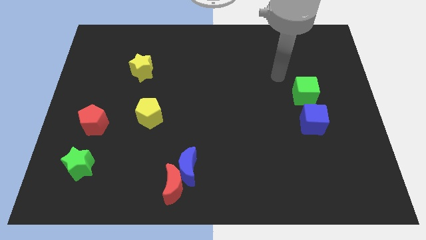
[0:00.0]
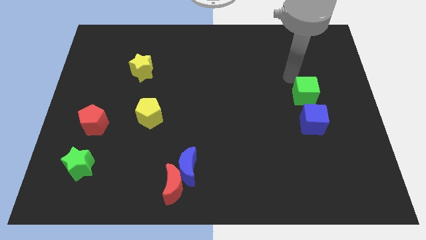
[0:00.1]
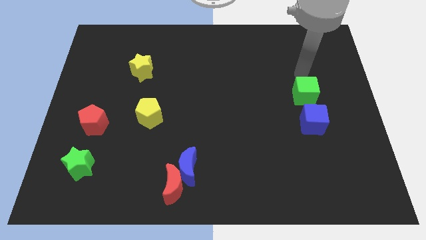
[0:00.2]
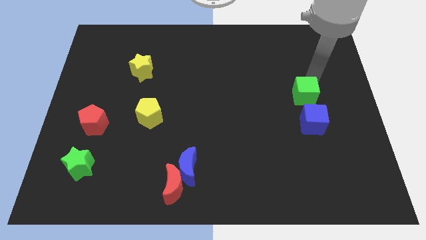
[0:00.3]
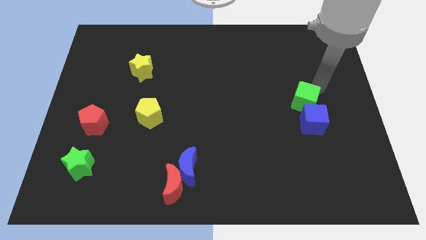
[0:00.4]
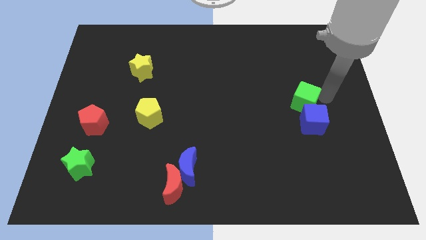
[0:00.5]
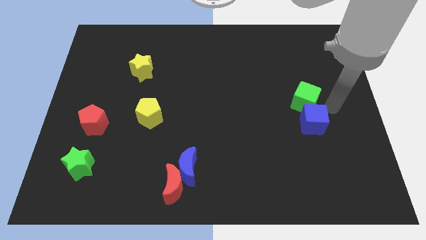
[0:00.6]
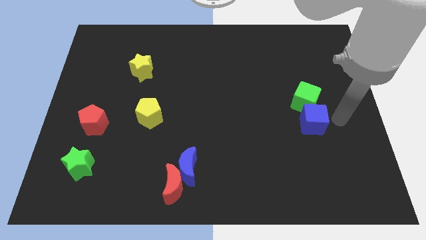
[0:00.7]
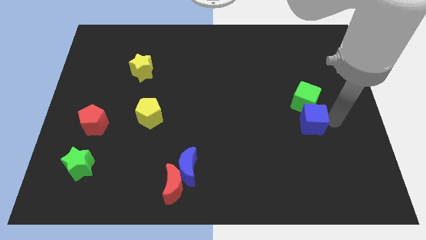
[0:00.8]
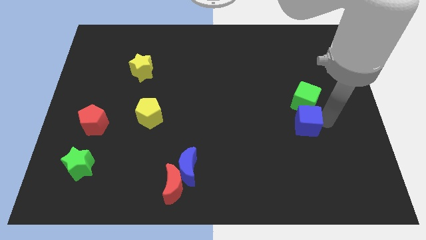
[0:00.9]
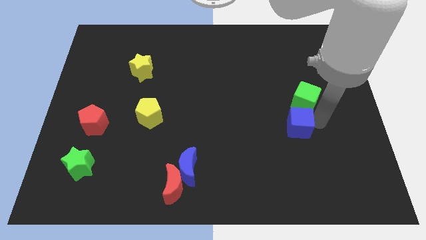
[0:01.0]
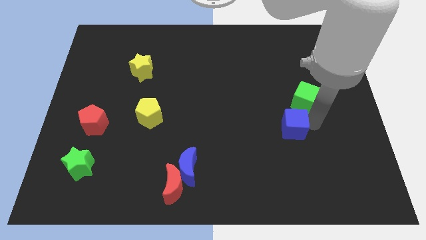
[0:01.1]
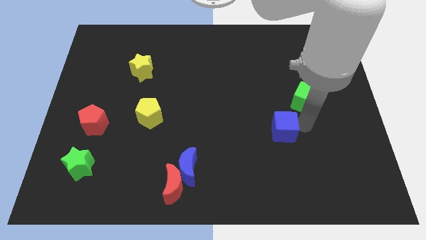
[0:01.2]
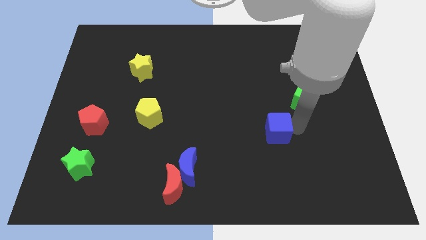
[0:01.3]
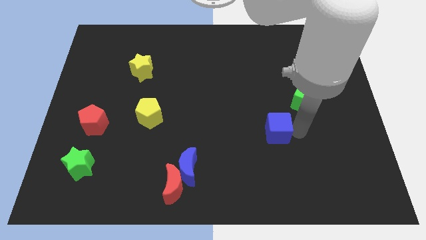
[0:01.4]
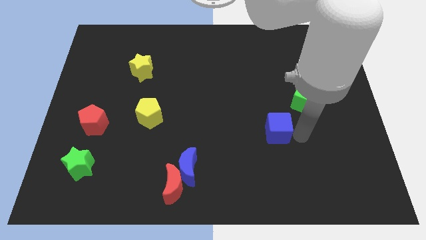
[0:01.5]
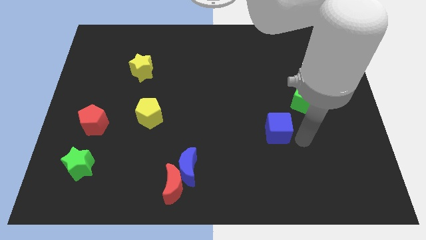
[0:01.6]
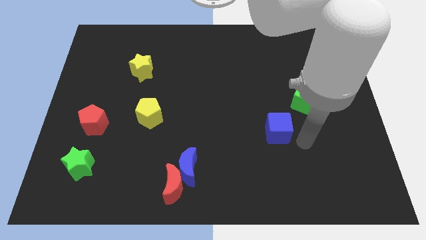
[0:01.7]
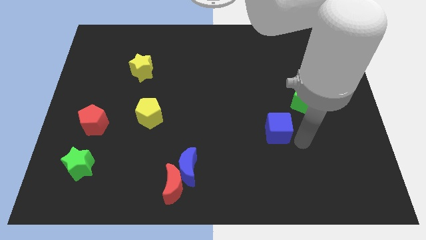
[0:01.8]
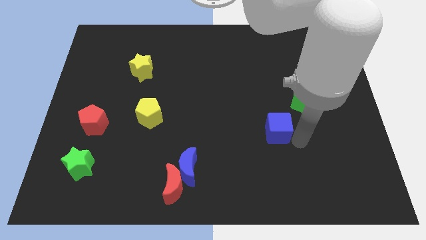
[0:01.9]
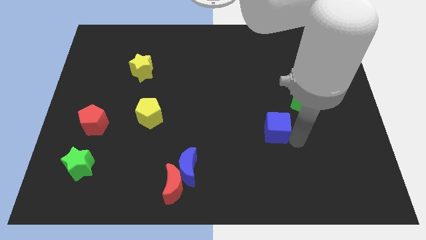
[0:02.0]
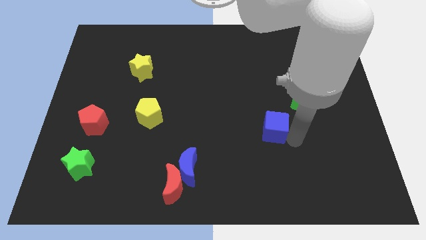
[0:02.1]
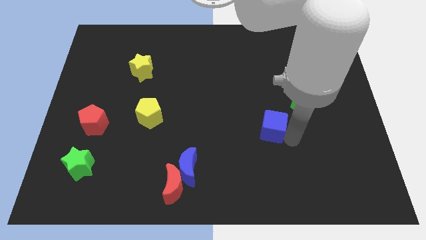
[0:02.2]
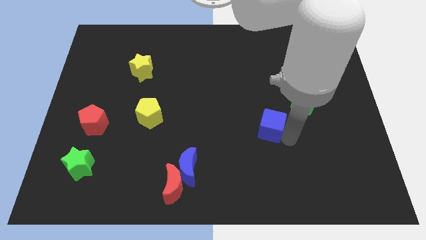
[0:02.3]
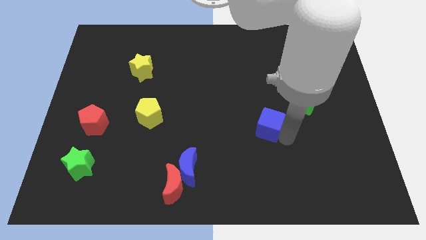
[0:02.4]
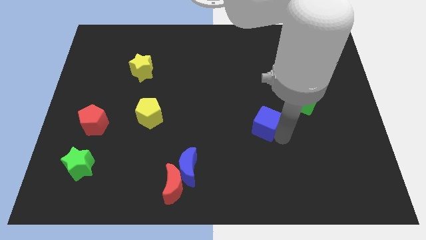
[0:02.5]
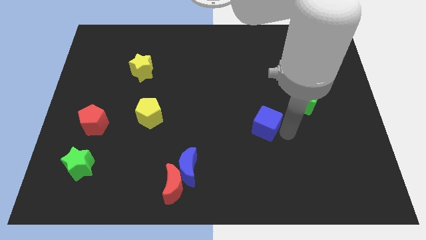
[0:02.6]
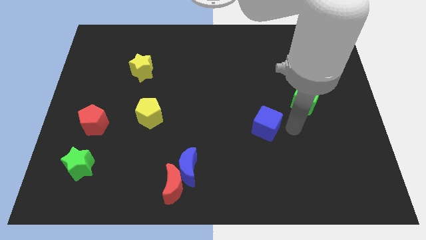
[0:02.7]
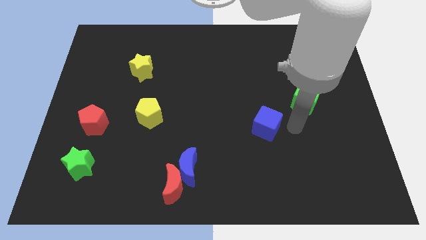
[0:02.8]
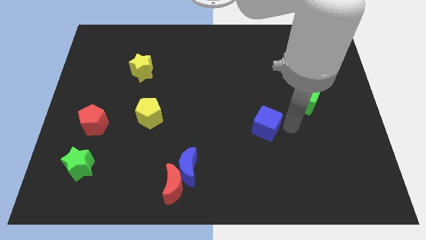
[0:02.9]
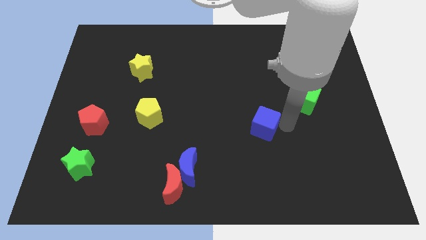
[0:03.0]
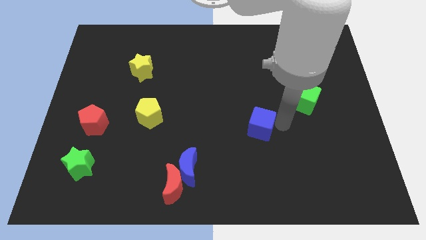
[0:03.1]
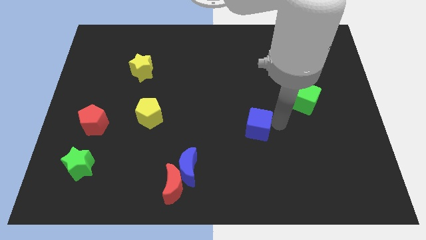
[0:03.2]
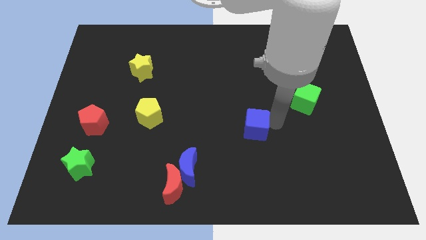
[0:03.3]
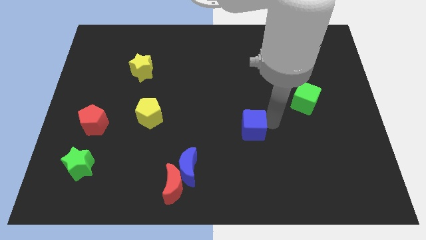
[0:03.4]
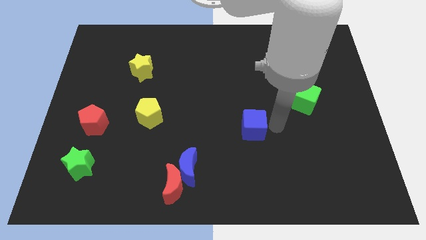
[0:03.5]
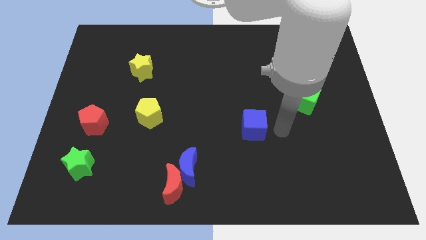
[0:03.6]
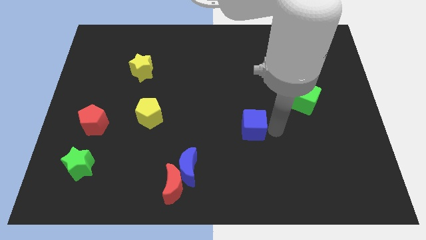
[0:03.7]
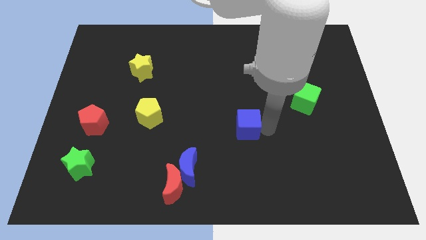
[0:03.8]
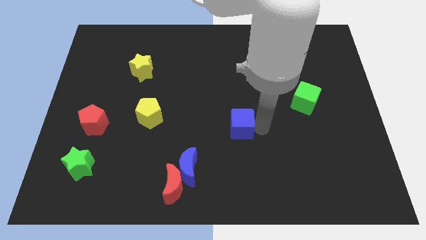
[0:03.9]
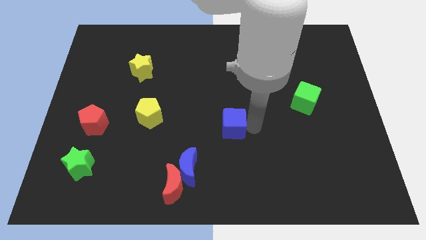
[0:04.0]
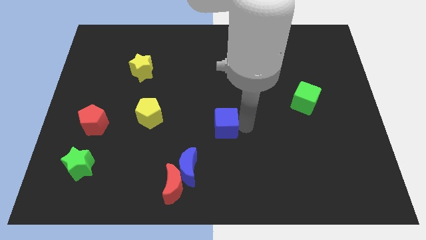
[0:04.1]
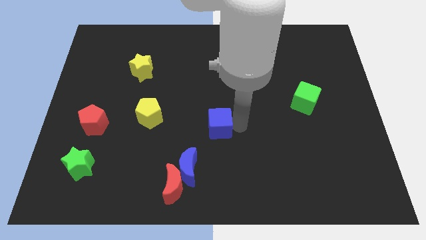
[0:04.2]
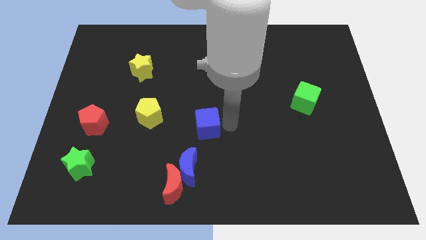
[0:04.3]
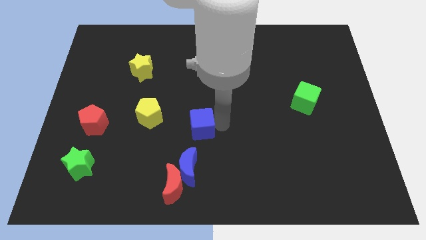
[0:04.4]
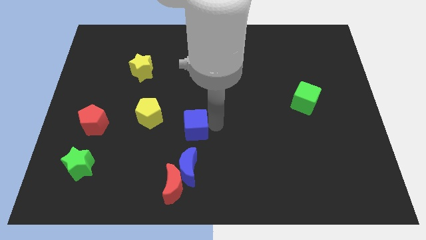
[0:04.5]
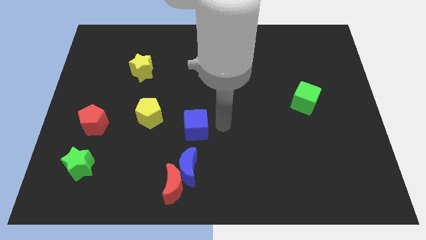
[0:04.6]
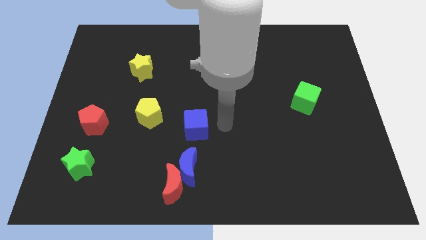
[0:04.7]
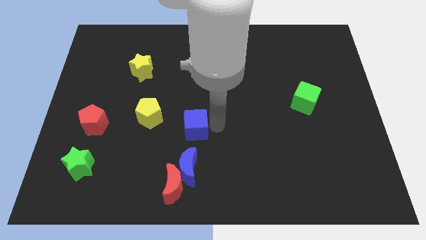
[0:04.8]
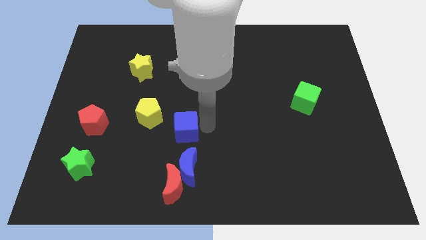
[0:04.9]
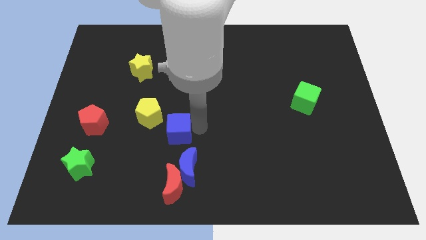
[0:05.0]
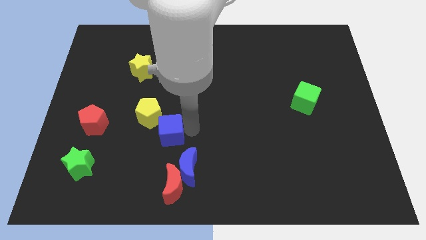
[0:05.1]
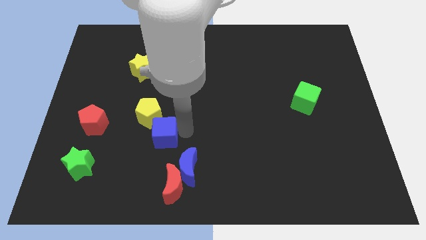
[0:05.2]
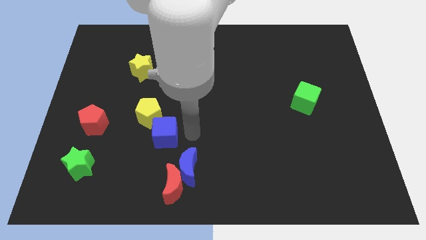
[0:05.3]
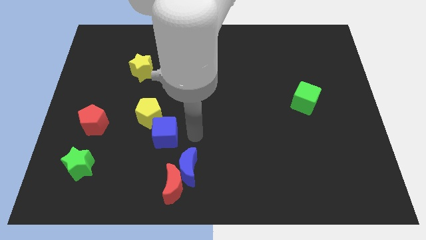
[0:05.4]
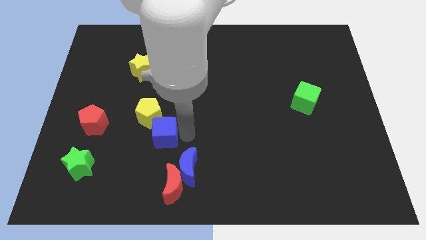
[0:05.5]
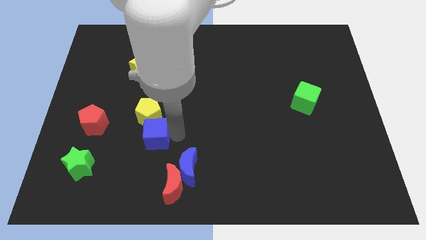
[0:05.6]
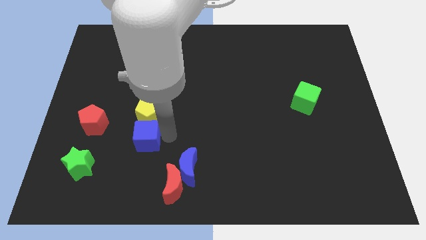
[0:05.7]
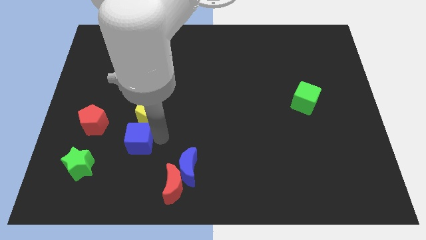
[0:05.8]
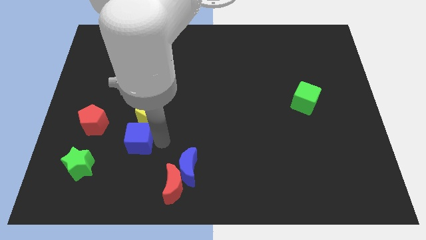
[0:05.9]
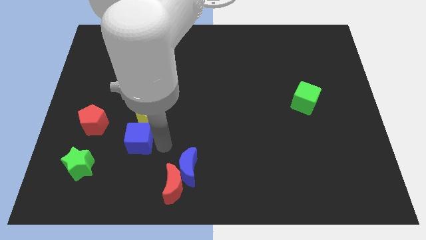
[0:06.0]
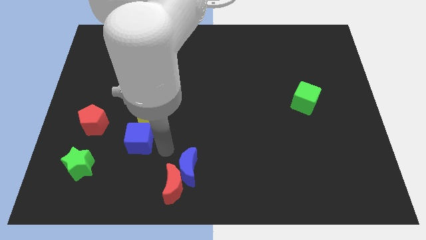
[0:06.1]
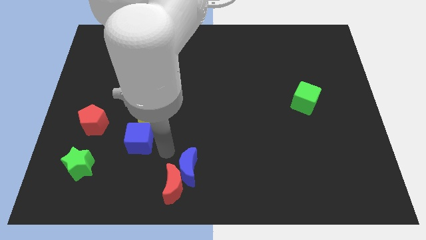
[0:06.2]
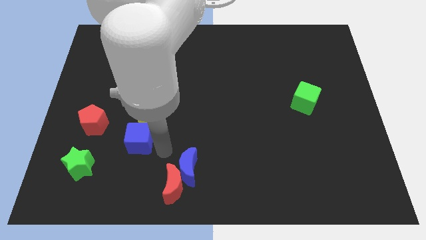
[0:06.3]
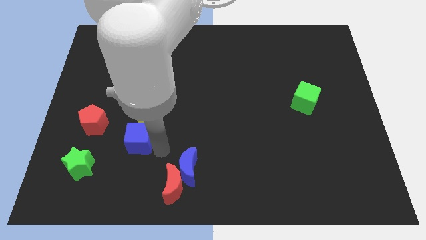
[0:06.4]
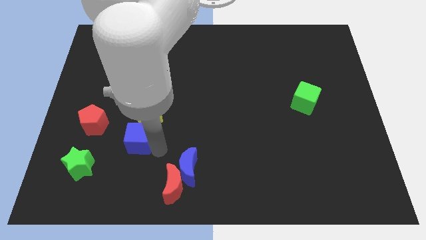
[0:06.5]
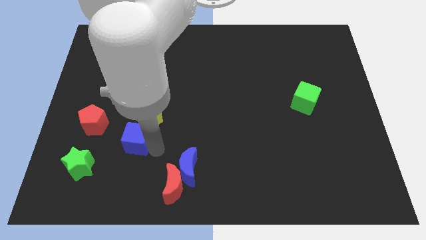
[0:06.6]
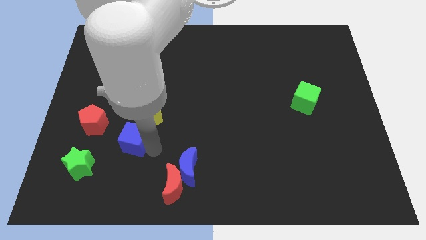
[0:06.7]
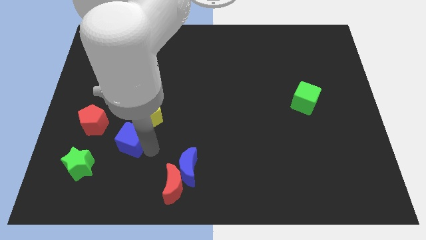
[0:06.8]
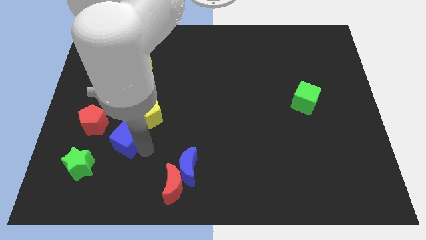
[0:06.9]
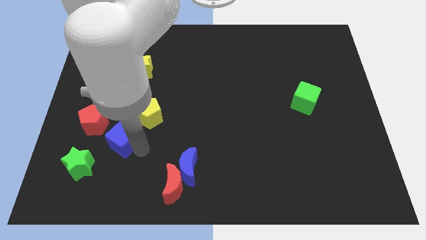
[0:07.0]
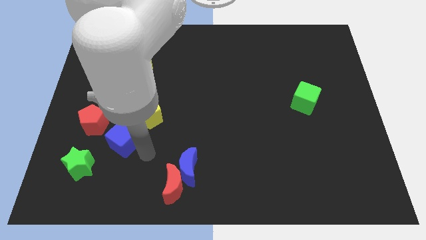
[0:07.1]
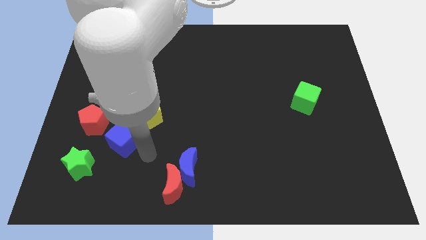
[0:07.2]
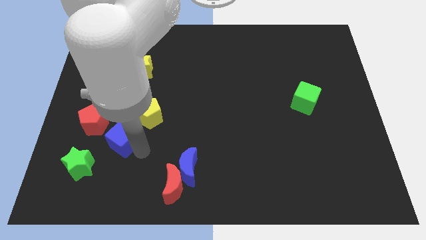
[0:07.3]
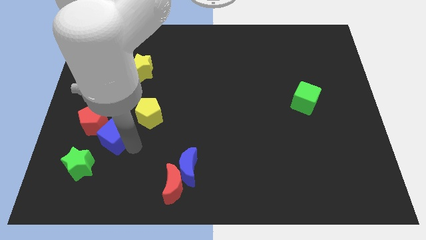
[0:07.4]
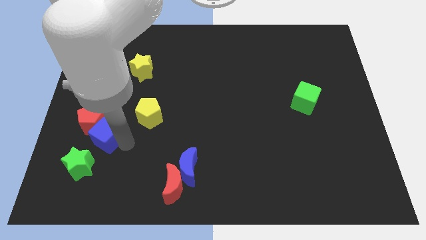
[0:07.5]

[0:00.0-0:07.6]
move the blue cube next to the red pentagon

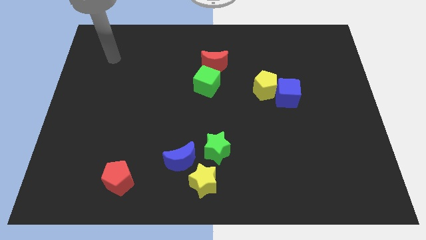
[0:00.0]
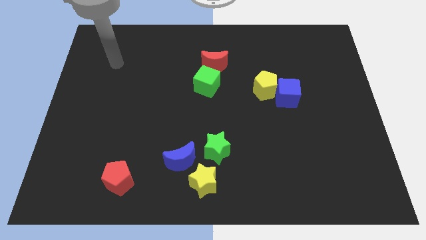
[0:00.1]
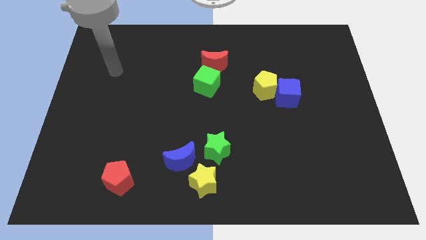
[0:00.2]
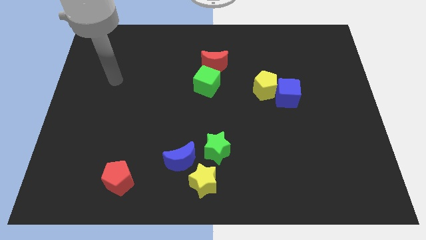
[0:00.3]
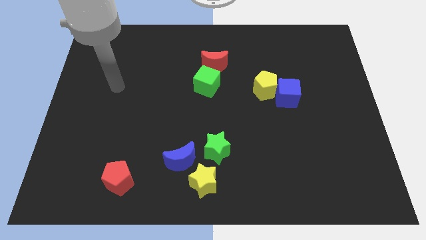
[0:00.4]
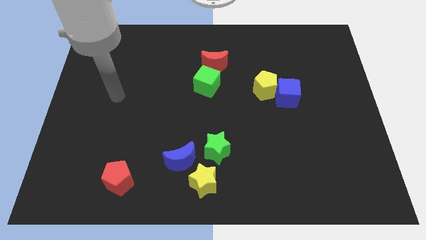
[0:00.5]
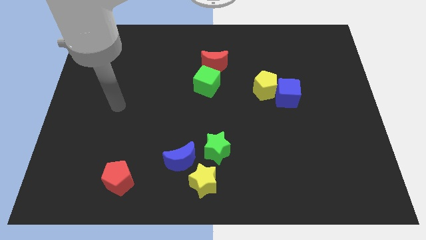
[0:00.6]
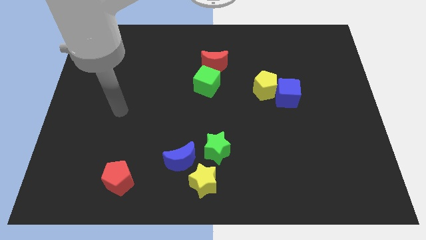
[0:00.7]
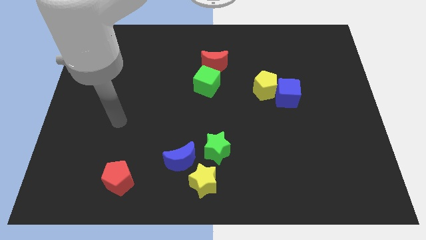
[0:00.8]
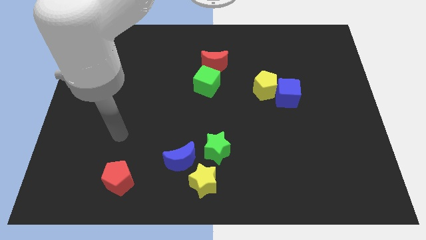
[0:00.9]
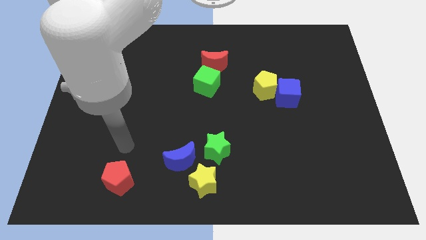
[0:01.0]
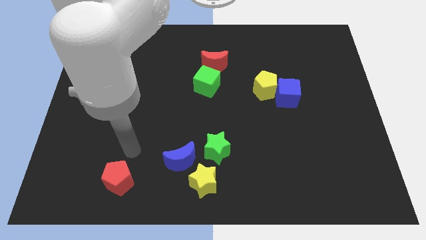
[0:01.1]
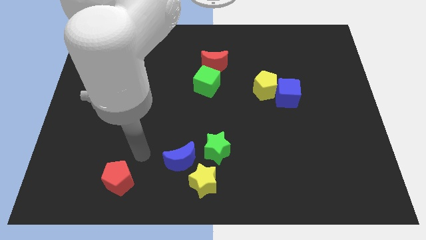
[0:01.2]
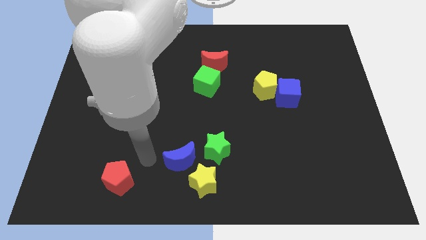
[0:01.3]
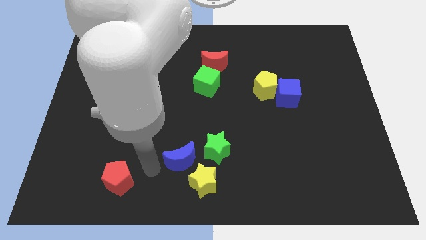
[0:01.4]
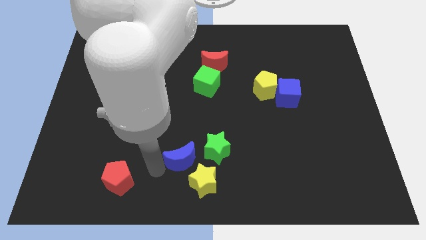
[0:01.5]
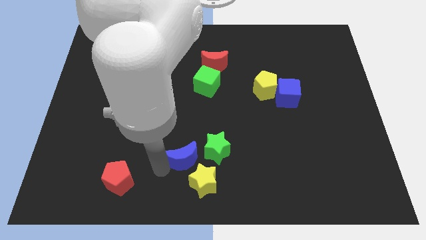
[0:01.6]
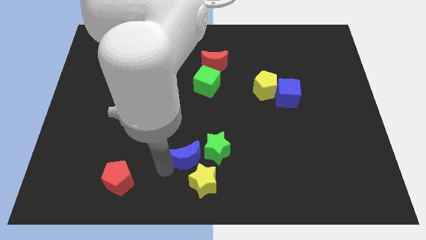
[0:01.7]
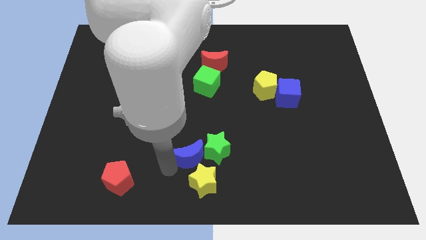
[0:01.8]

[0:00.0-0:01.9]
move the blue moon next to the green star
